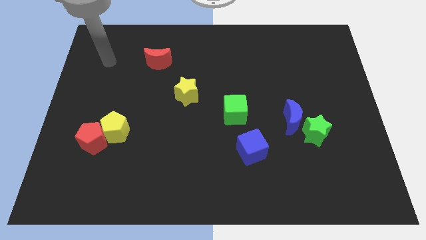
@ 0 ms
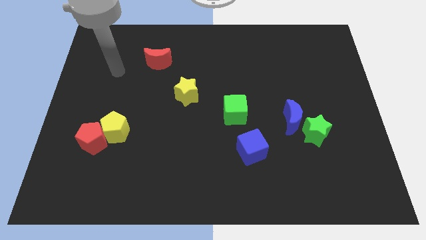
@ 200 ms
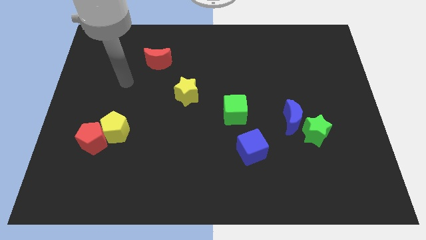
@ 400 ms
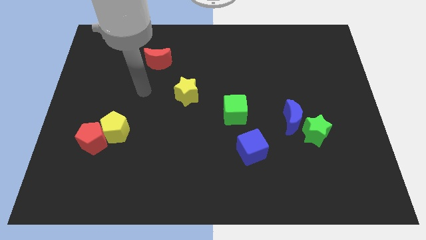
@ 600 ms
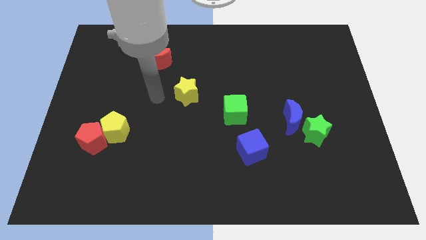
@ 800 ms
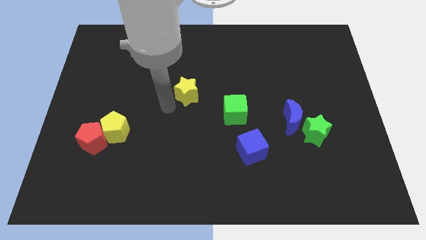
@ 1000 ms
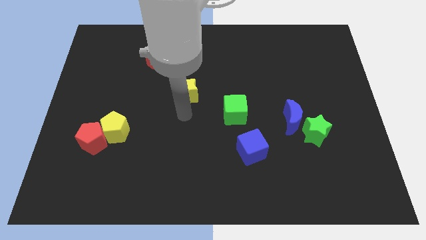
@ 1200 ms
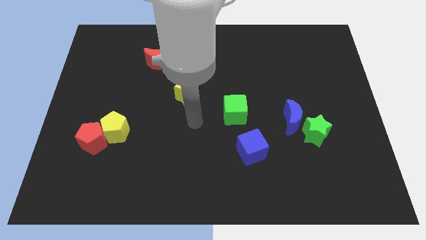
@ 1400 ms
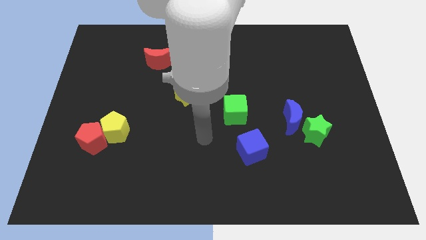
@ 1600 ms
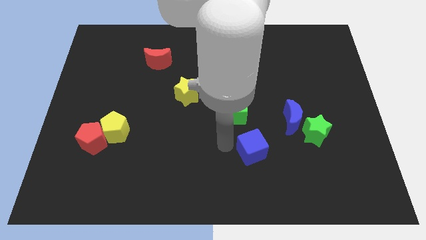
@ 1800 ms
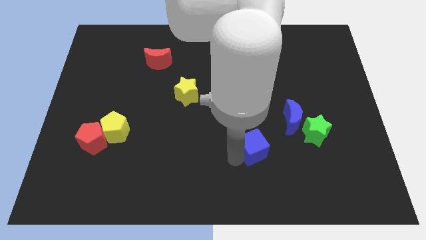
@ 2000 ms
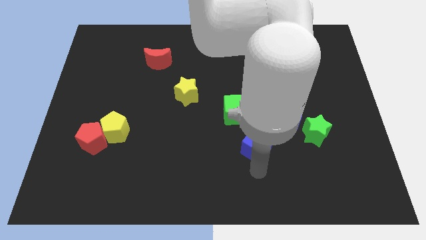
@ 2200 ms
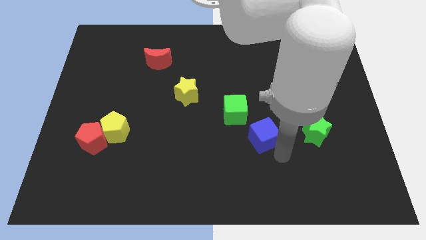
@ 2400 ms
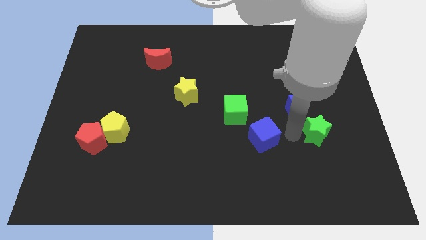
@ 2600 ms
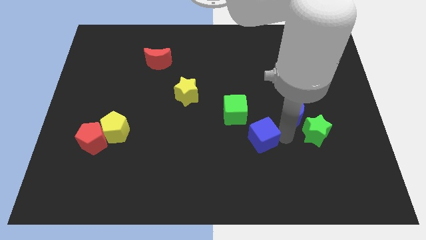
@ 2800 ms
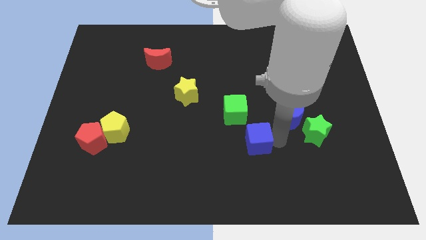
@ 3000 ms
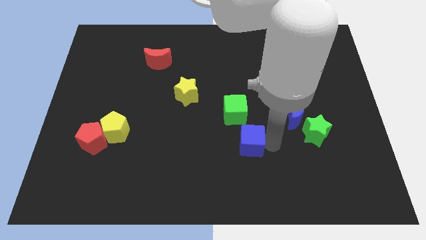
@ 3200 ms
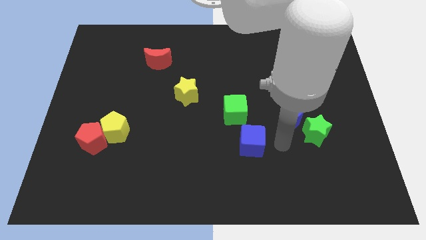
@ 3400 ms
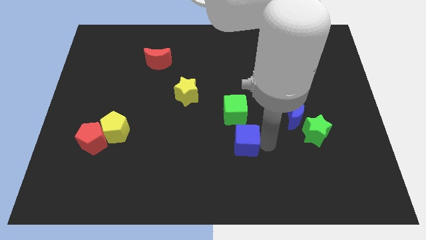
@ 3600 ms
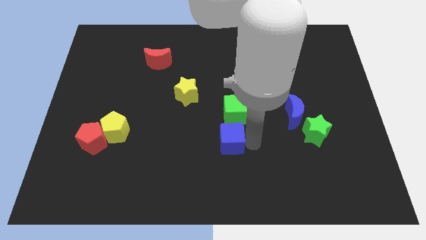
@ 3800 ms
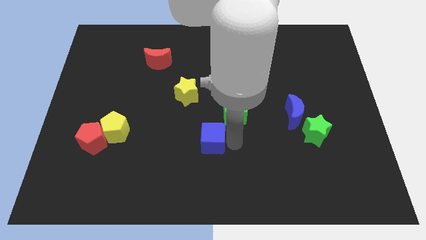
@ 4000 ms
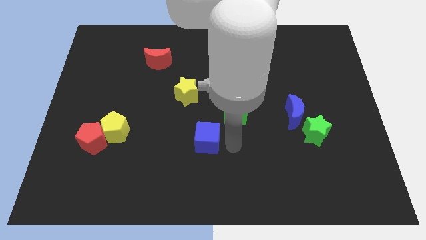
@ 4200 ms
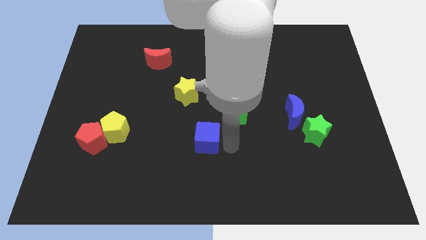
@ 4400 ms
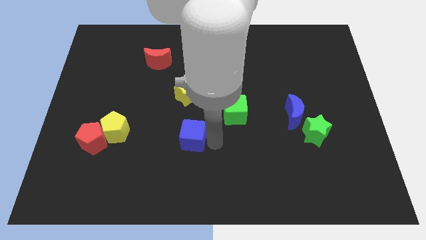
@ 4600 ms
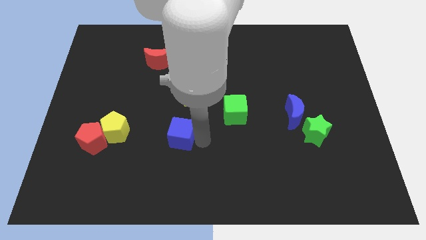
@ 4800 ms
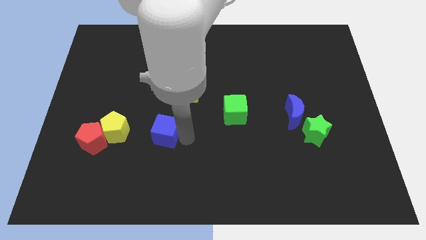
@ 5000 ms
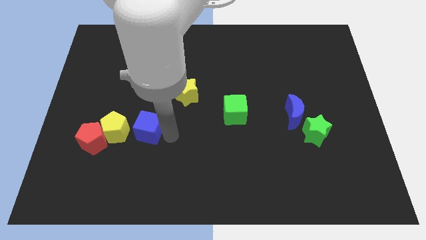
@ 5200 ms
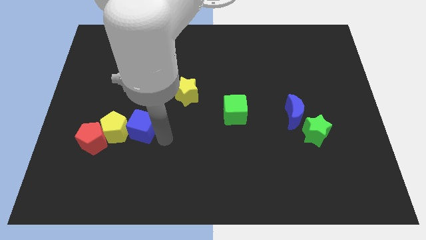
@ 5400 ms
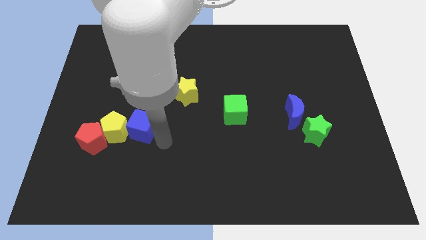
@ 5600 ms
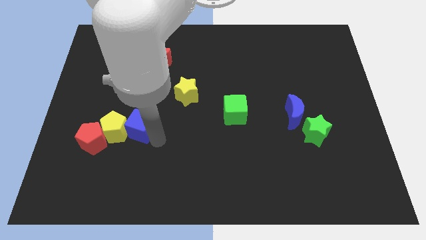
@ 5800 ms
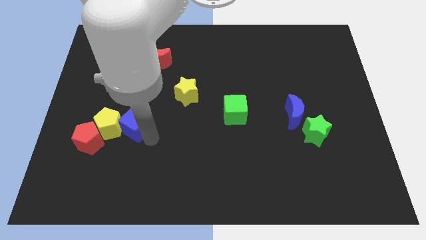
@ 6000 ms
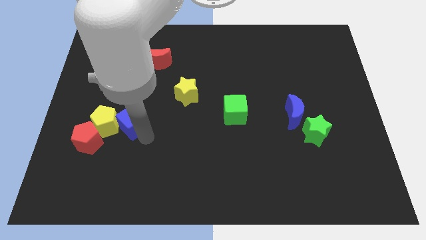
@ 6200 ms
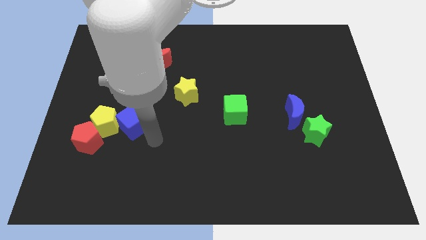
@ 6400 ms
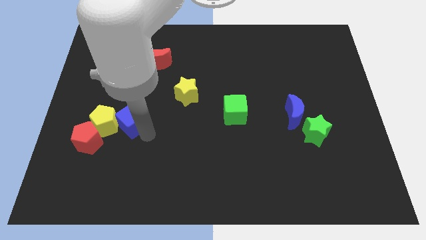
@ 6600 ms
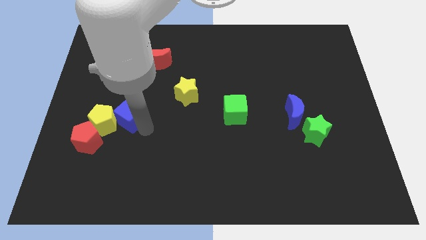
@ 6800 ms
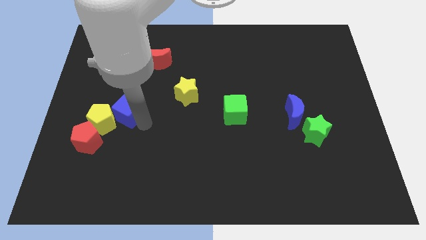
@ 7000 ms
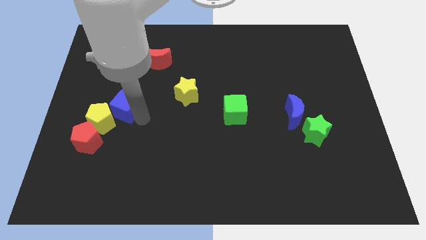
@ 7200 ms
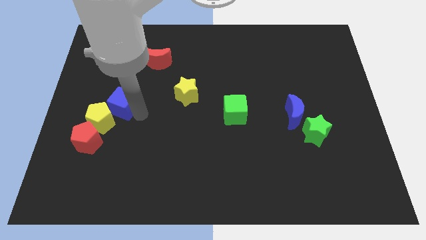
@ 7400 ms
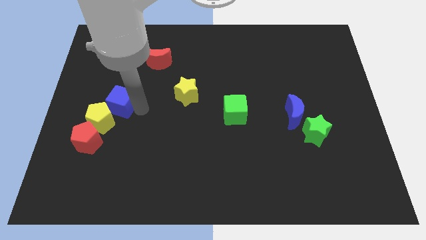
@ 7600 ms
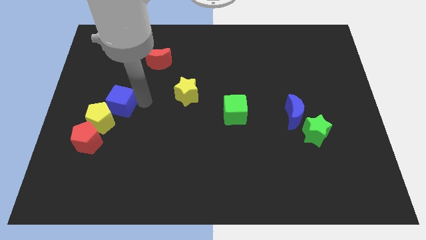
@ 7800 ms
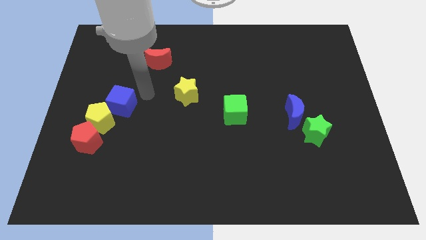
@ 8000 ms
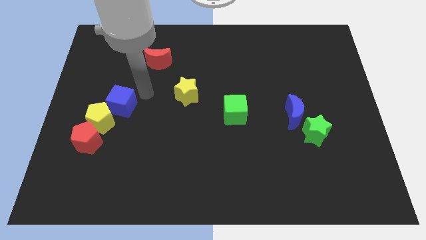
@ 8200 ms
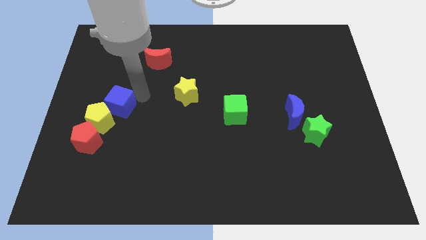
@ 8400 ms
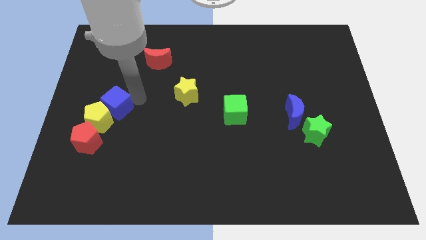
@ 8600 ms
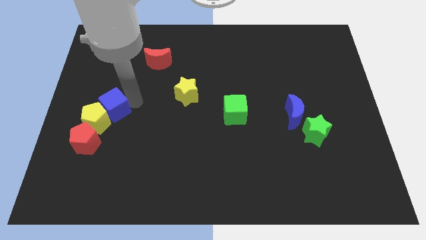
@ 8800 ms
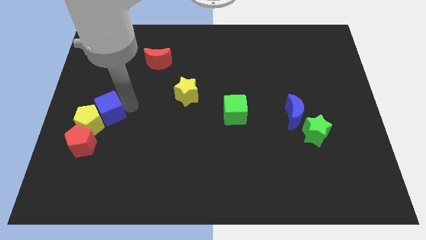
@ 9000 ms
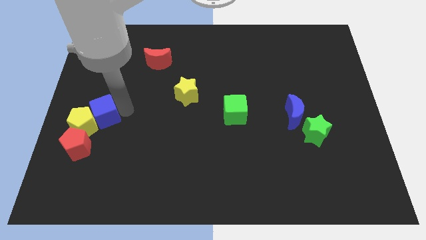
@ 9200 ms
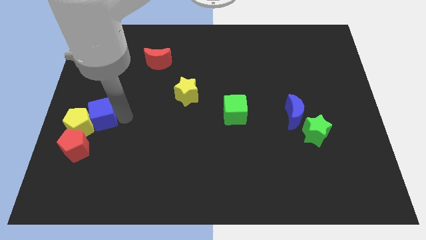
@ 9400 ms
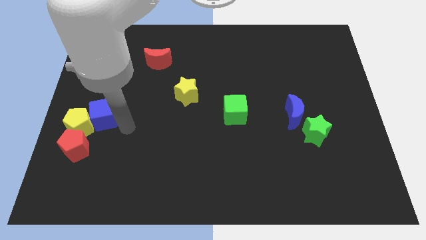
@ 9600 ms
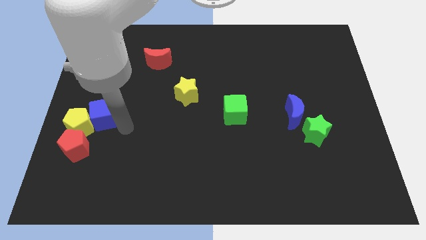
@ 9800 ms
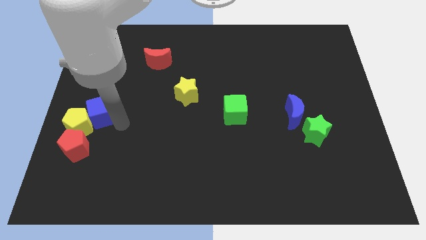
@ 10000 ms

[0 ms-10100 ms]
push the blue cube to the left side

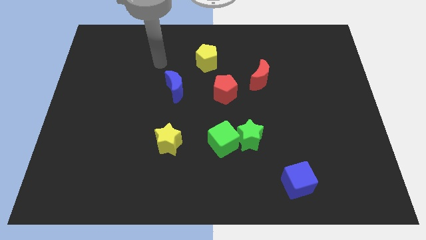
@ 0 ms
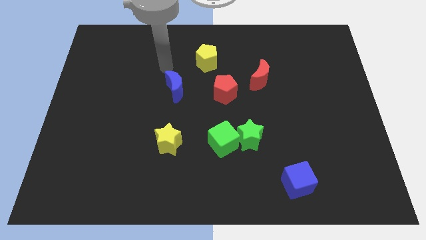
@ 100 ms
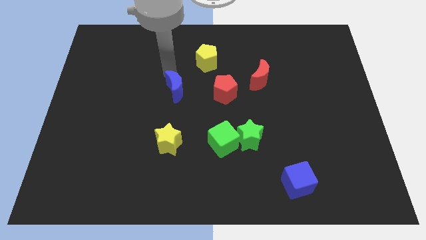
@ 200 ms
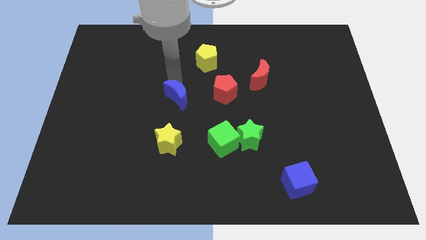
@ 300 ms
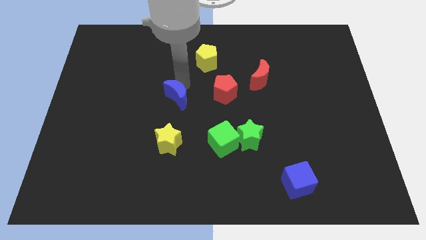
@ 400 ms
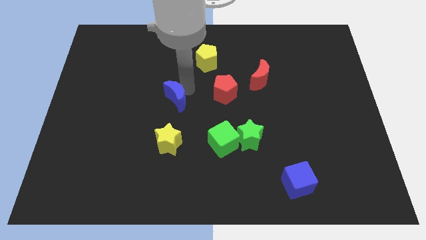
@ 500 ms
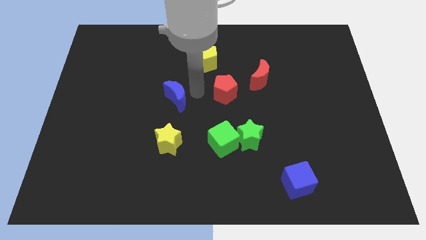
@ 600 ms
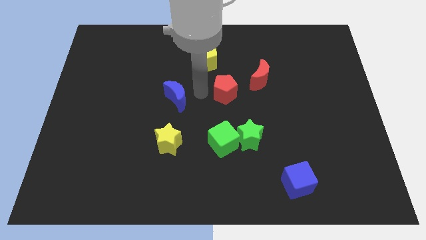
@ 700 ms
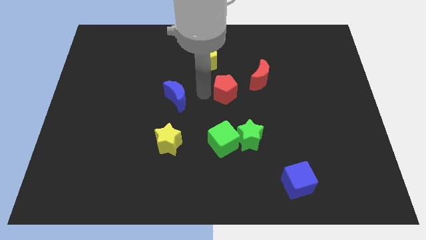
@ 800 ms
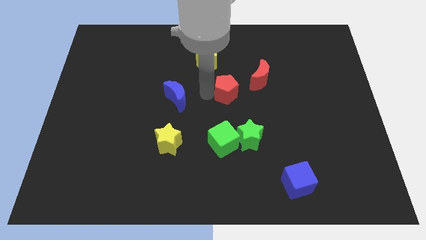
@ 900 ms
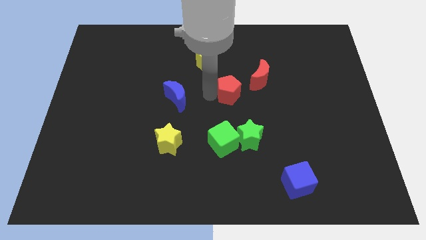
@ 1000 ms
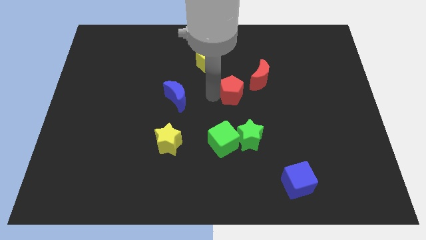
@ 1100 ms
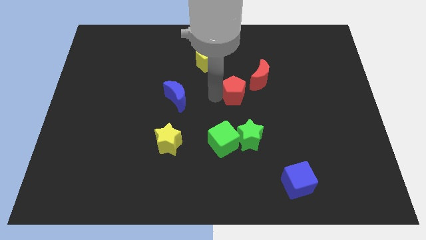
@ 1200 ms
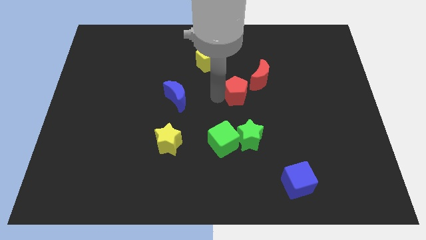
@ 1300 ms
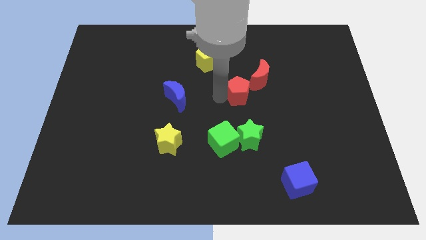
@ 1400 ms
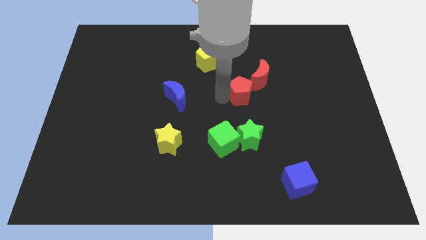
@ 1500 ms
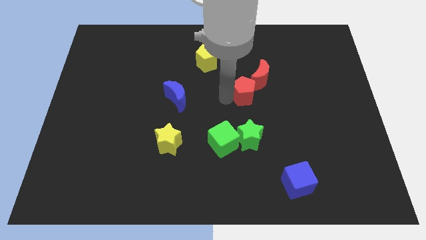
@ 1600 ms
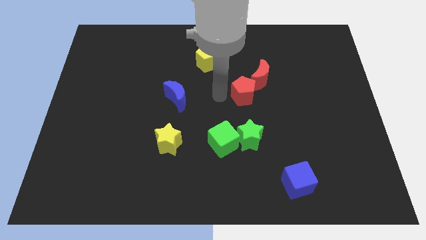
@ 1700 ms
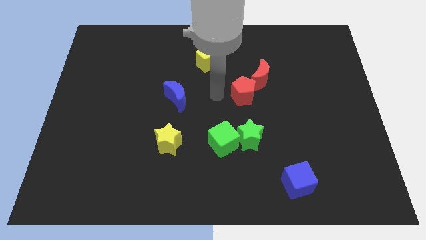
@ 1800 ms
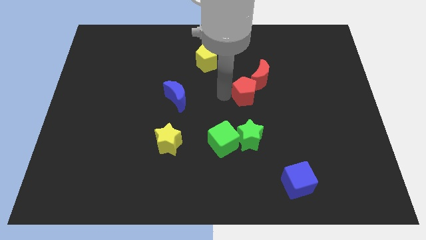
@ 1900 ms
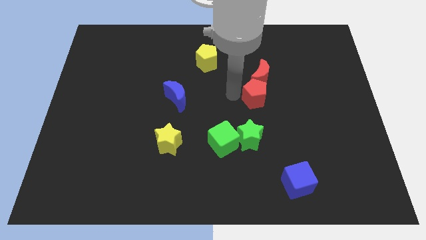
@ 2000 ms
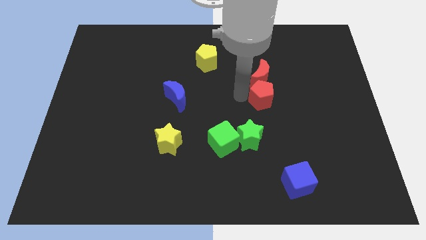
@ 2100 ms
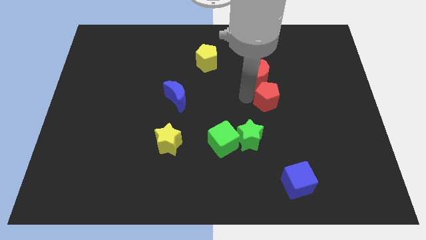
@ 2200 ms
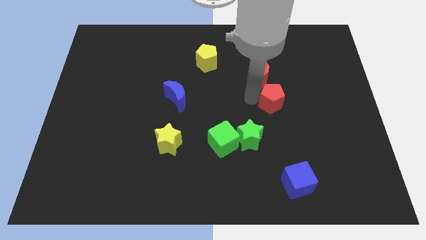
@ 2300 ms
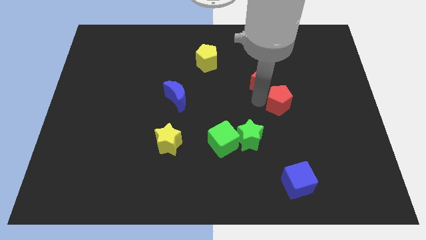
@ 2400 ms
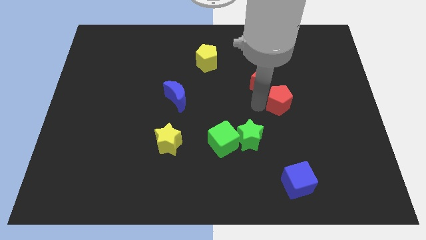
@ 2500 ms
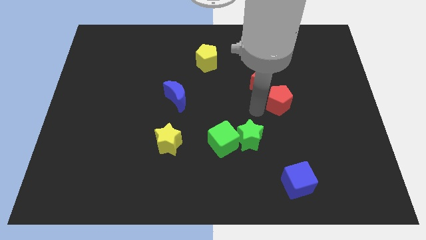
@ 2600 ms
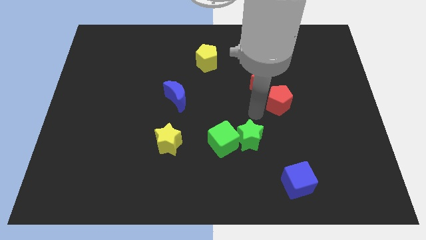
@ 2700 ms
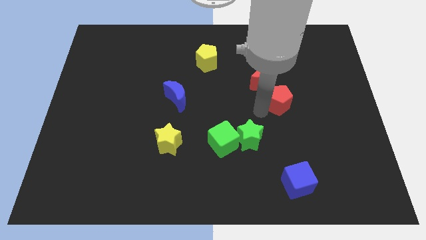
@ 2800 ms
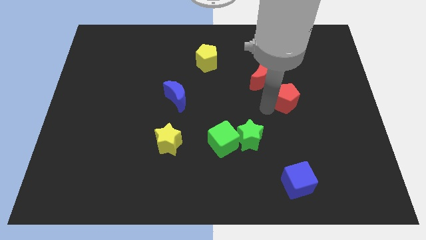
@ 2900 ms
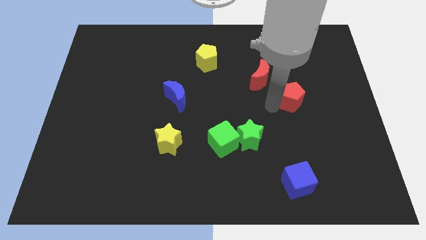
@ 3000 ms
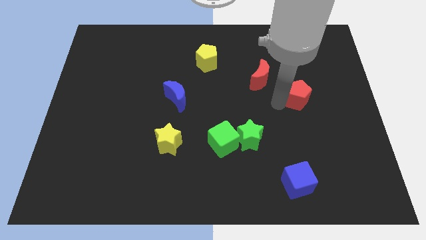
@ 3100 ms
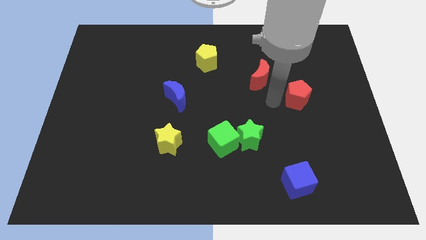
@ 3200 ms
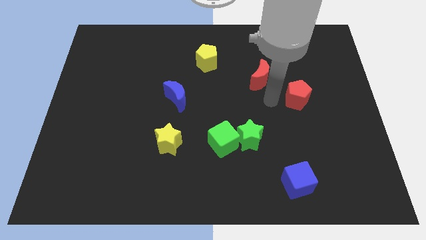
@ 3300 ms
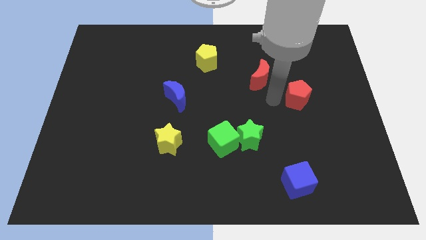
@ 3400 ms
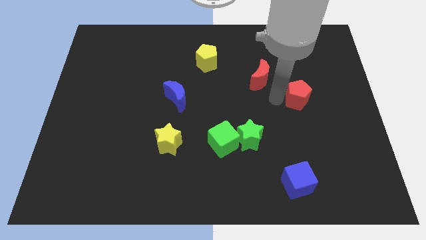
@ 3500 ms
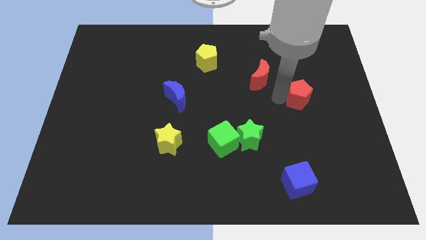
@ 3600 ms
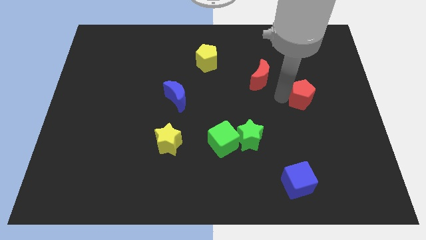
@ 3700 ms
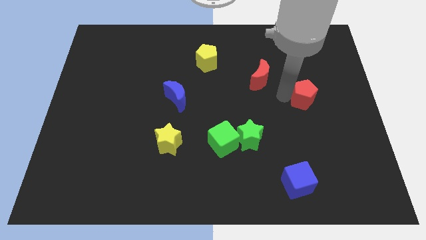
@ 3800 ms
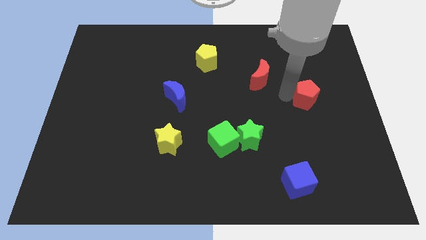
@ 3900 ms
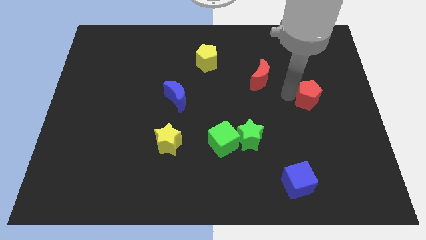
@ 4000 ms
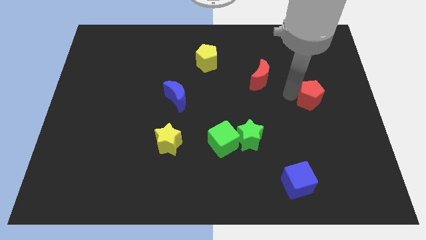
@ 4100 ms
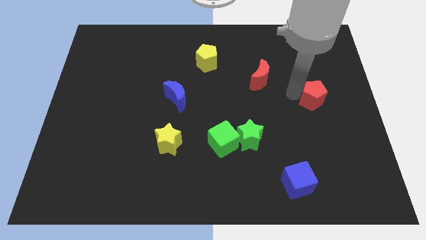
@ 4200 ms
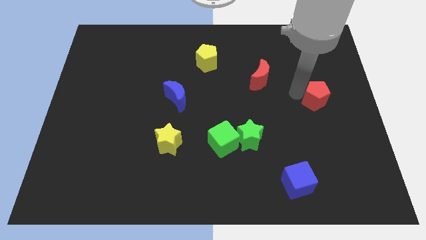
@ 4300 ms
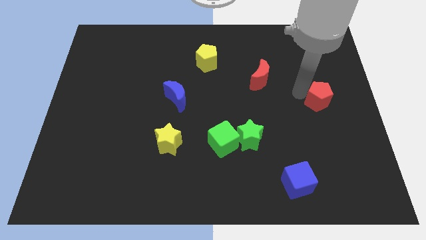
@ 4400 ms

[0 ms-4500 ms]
slide the red pentagon to the right side
